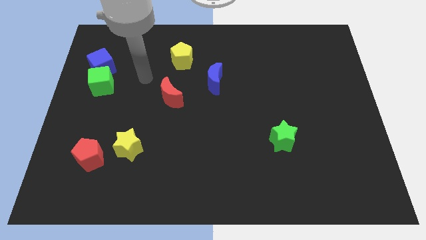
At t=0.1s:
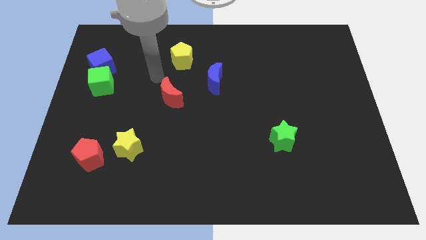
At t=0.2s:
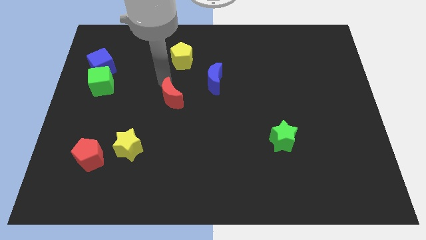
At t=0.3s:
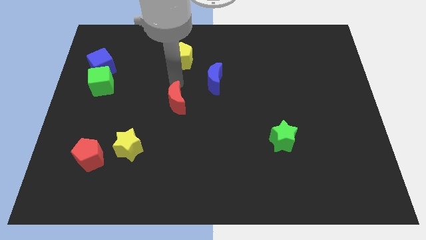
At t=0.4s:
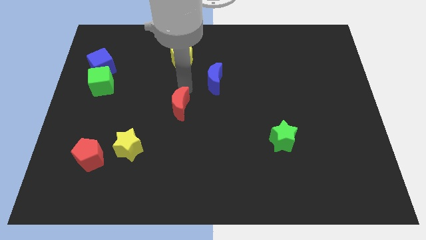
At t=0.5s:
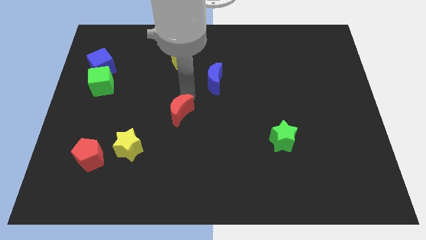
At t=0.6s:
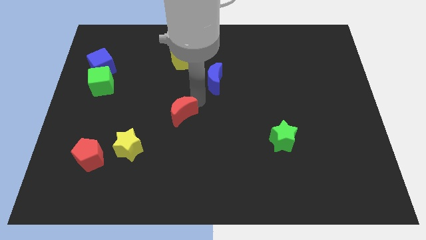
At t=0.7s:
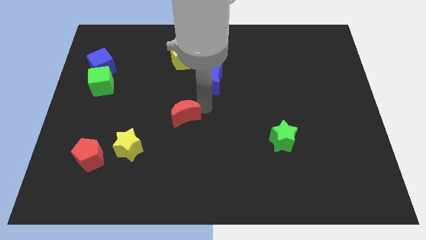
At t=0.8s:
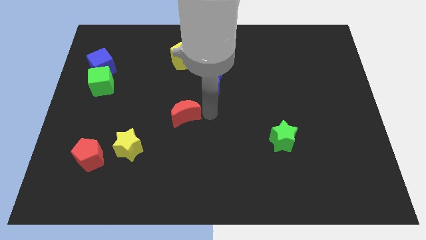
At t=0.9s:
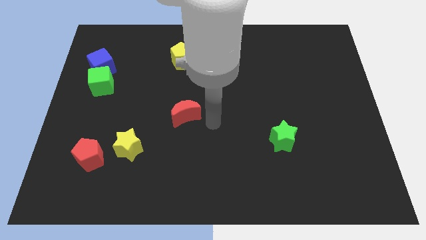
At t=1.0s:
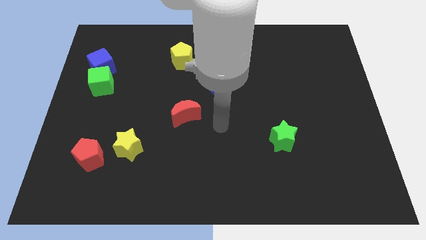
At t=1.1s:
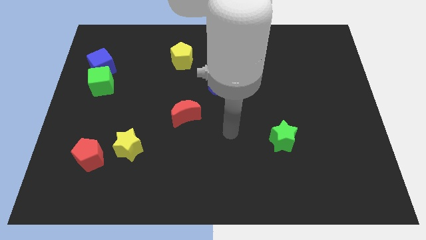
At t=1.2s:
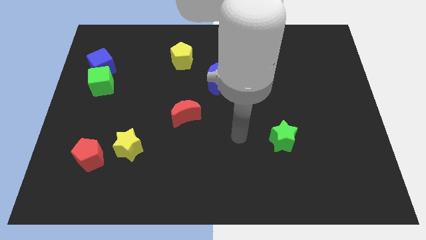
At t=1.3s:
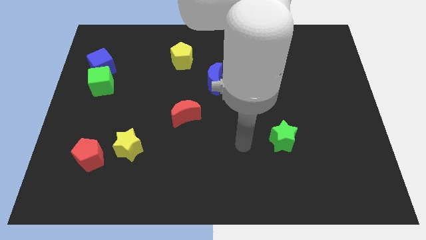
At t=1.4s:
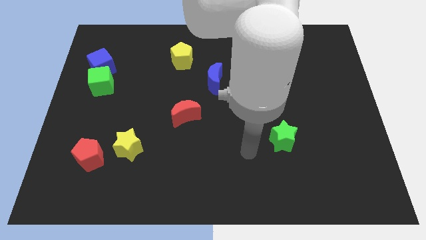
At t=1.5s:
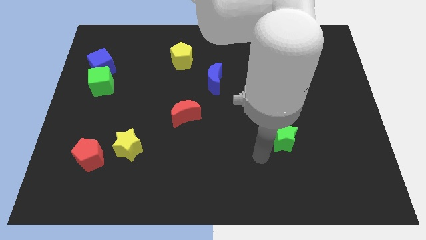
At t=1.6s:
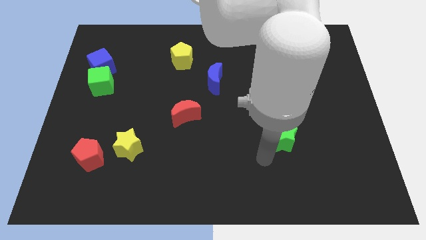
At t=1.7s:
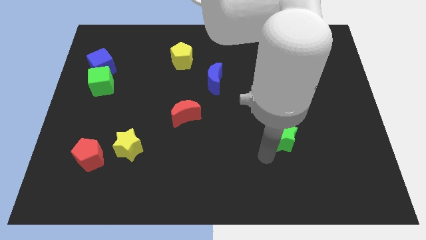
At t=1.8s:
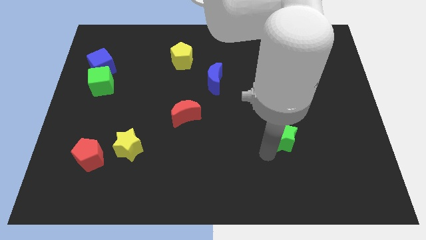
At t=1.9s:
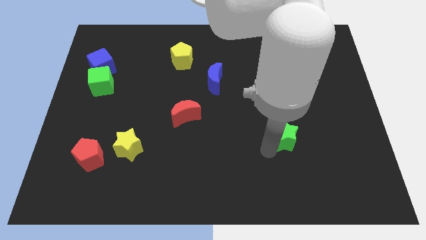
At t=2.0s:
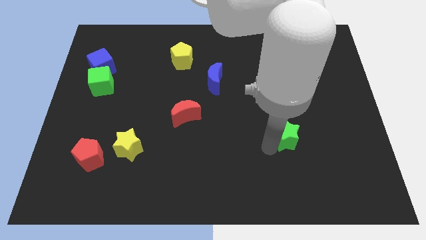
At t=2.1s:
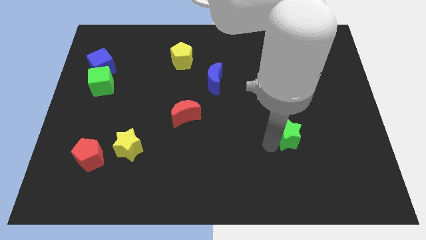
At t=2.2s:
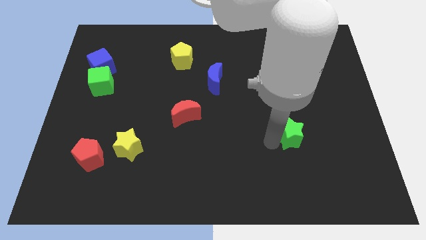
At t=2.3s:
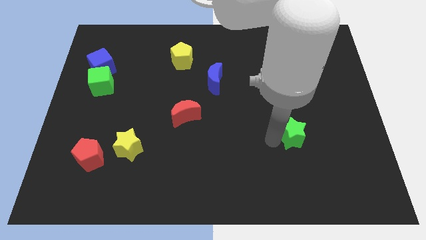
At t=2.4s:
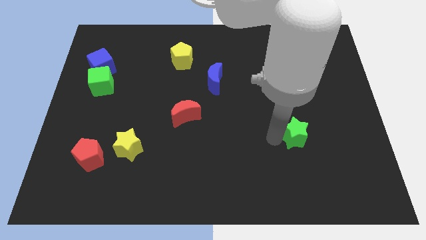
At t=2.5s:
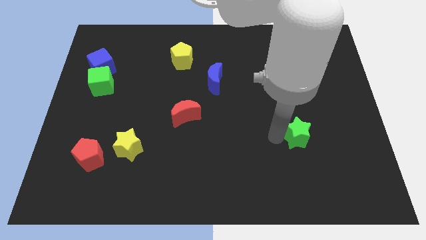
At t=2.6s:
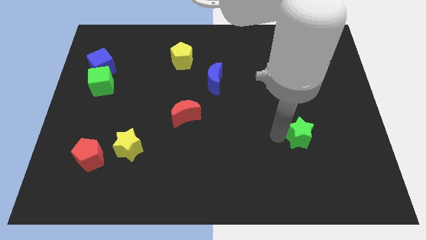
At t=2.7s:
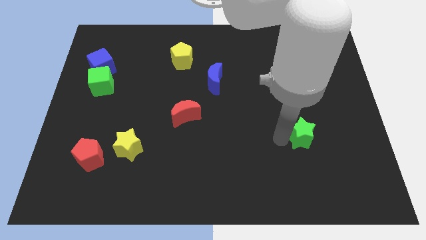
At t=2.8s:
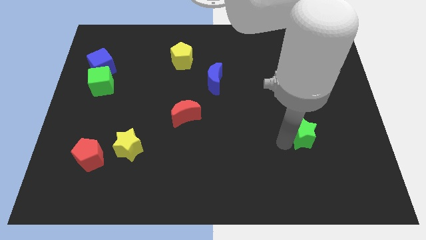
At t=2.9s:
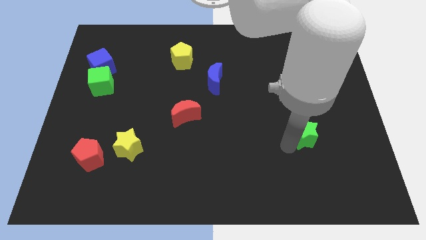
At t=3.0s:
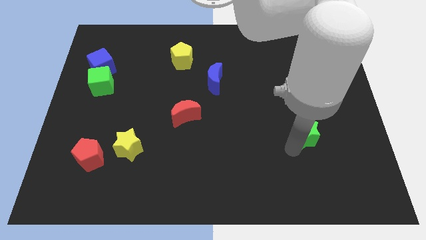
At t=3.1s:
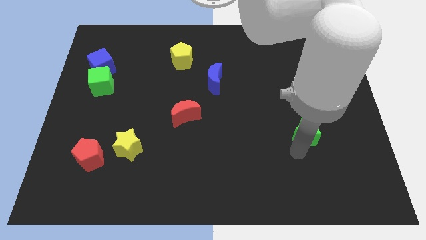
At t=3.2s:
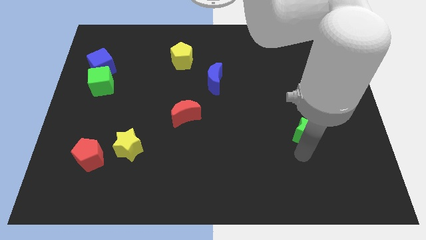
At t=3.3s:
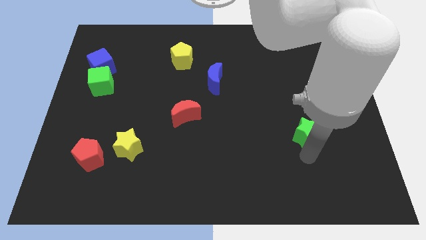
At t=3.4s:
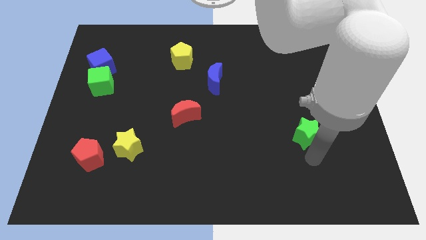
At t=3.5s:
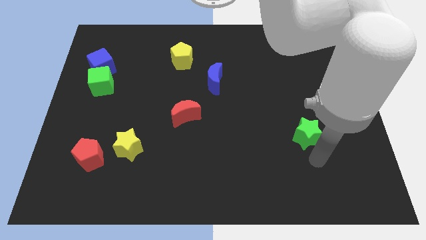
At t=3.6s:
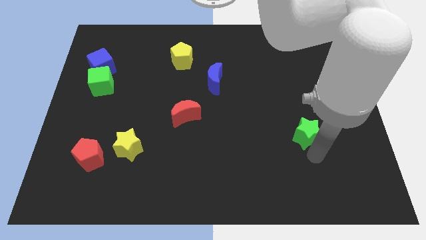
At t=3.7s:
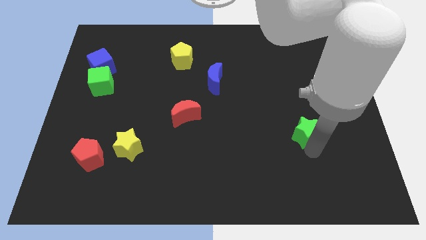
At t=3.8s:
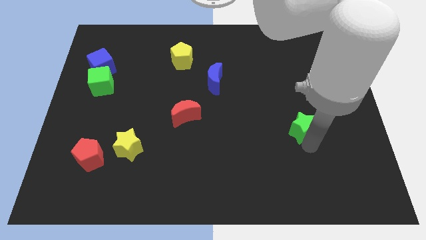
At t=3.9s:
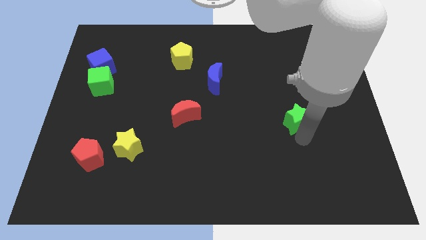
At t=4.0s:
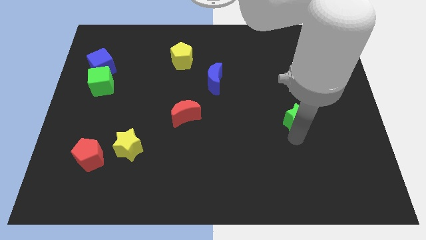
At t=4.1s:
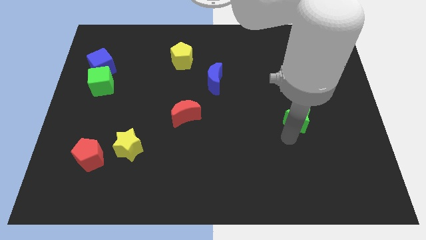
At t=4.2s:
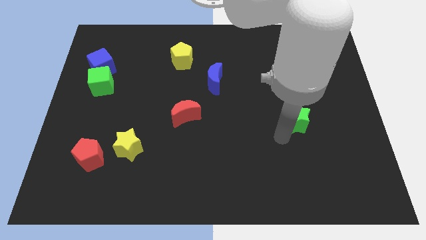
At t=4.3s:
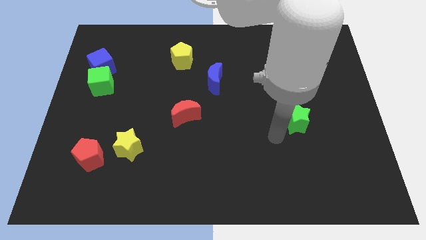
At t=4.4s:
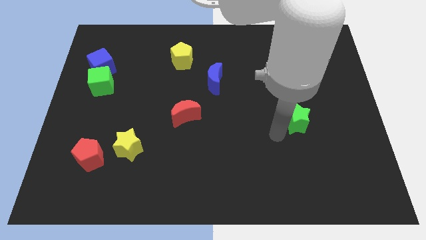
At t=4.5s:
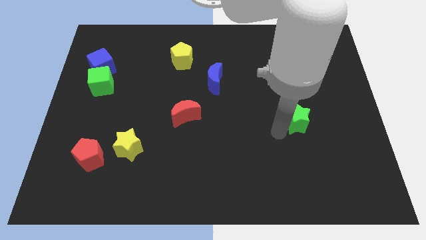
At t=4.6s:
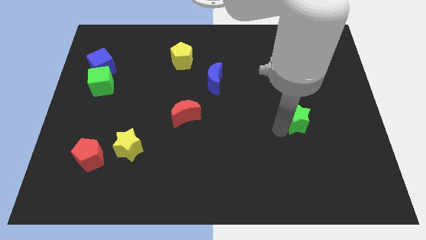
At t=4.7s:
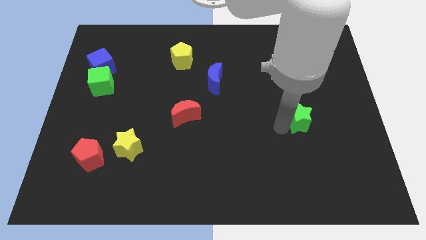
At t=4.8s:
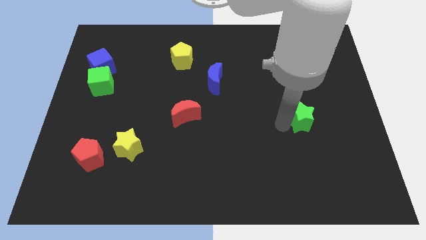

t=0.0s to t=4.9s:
slightly move the green star diagonally up and right

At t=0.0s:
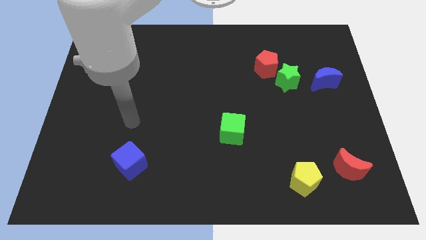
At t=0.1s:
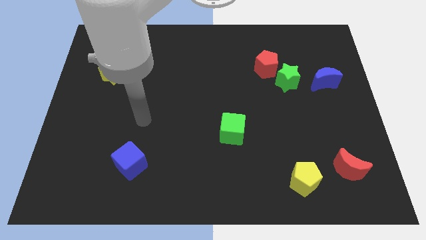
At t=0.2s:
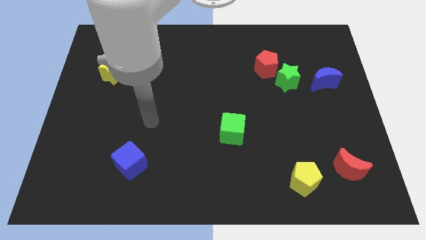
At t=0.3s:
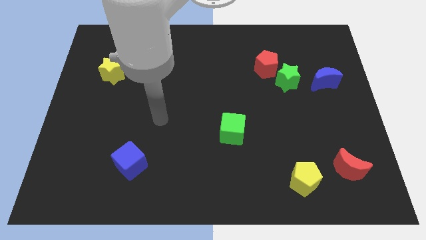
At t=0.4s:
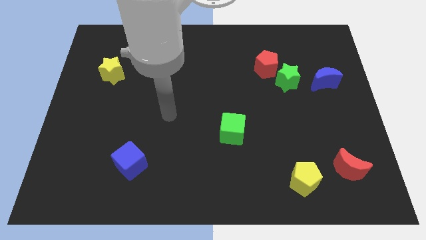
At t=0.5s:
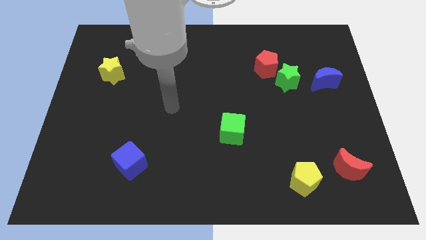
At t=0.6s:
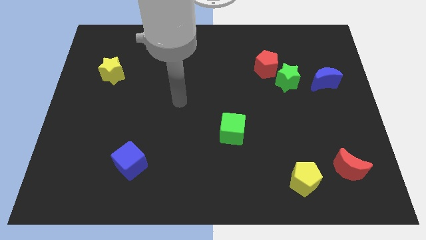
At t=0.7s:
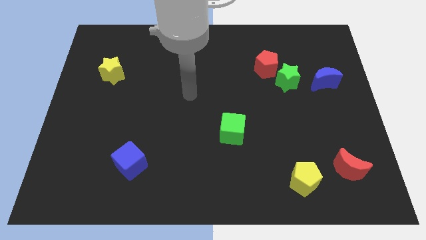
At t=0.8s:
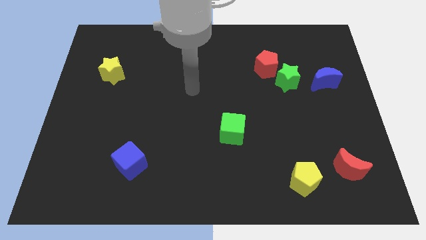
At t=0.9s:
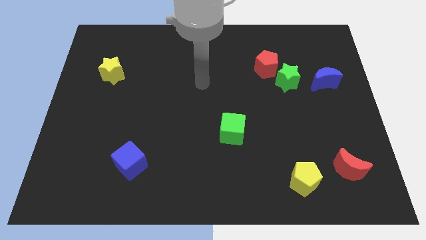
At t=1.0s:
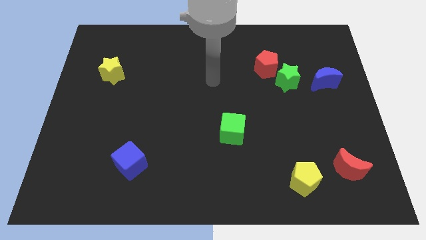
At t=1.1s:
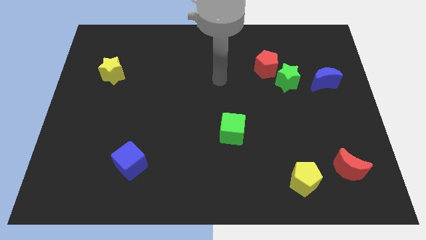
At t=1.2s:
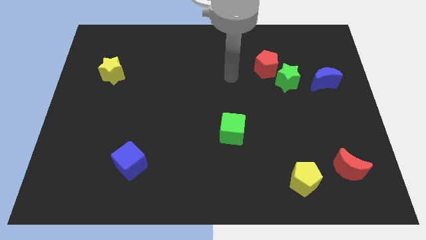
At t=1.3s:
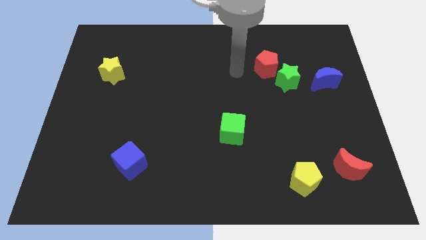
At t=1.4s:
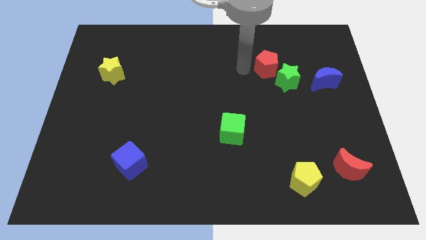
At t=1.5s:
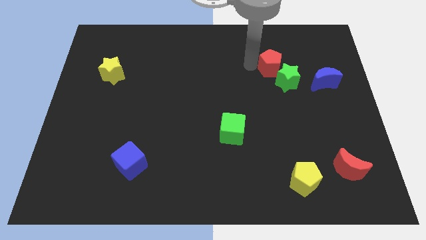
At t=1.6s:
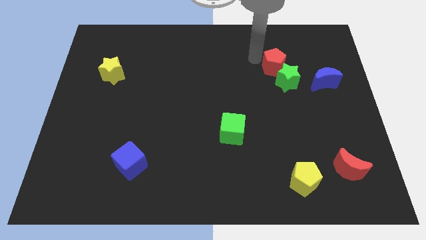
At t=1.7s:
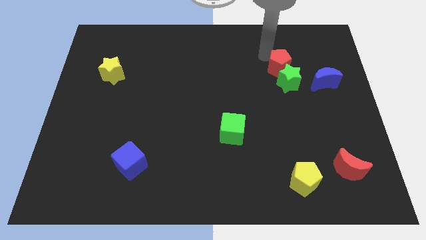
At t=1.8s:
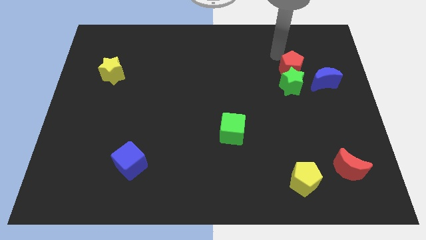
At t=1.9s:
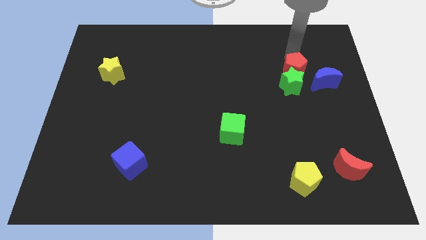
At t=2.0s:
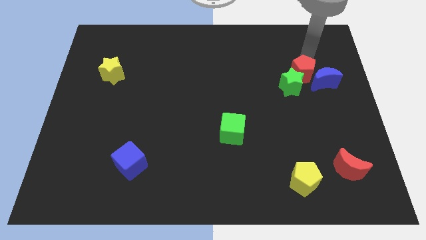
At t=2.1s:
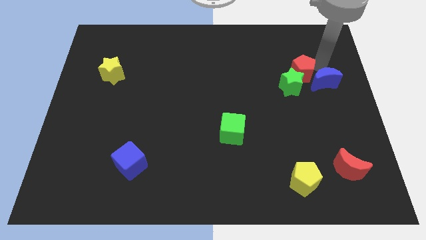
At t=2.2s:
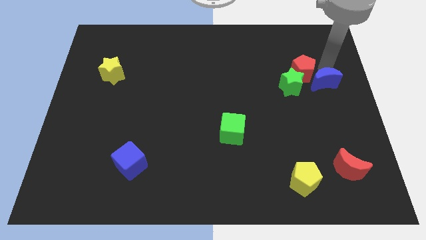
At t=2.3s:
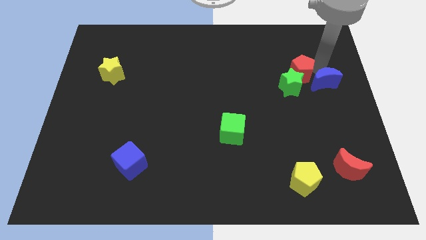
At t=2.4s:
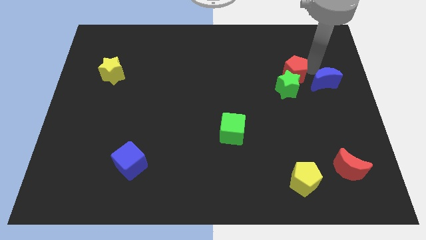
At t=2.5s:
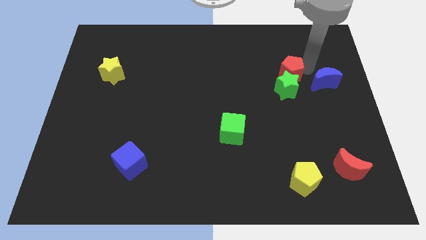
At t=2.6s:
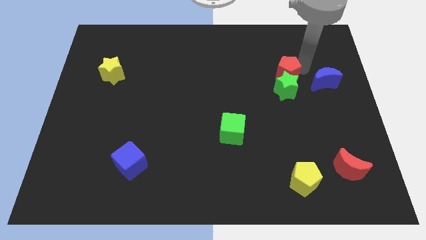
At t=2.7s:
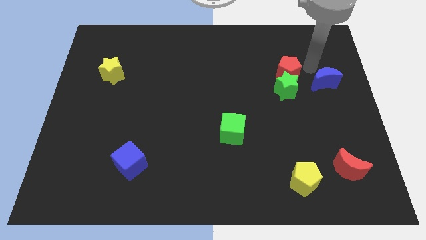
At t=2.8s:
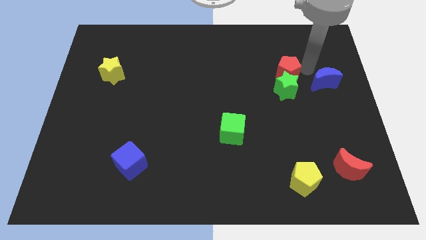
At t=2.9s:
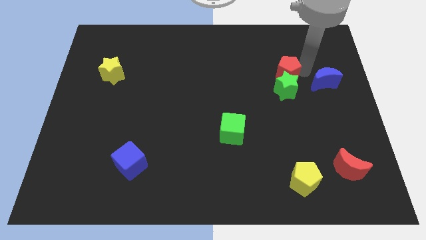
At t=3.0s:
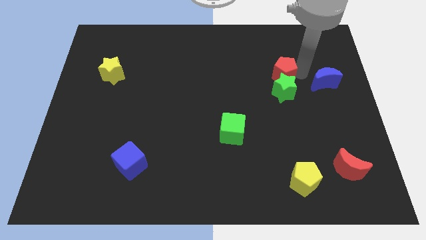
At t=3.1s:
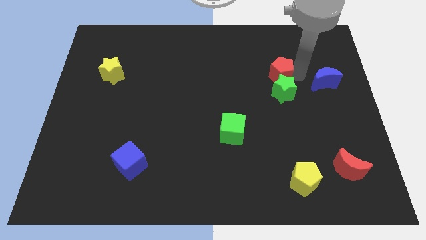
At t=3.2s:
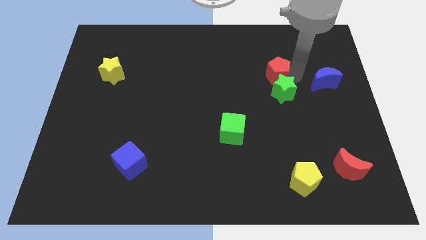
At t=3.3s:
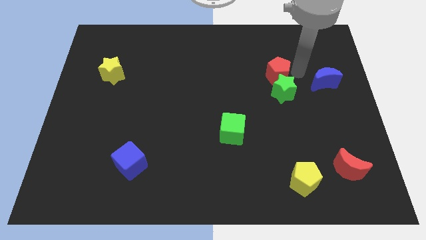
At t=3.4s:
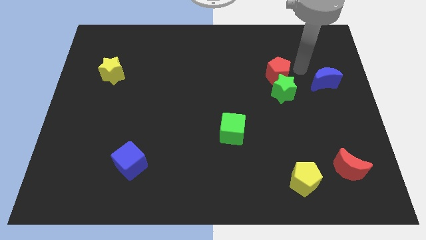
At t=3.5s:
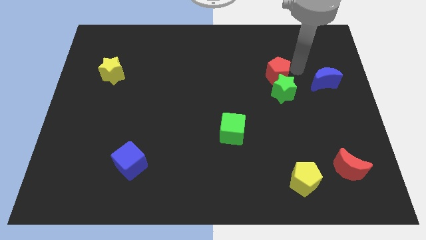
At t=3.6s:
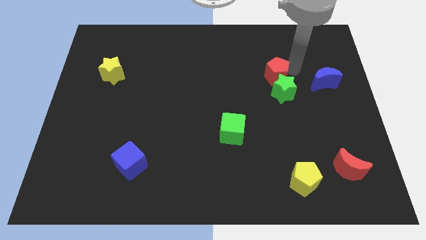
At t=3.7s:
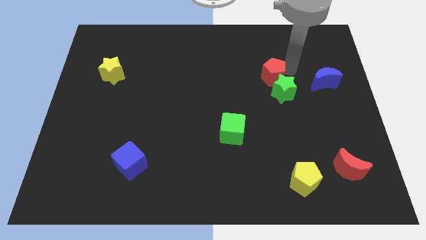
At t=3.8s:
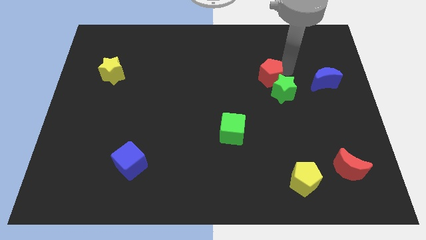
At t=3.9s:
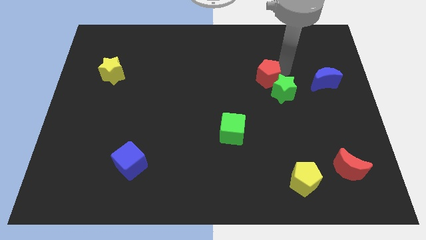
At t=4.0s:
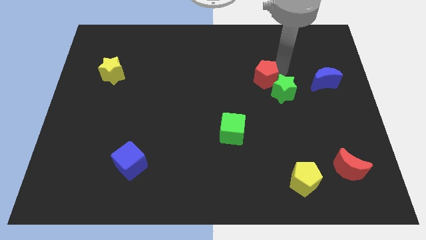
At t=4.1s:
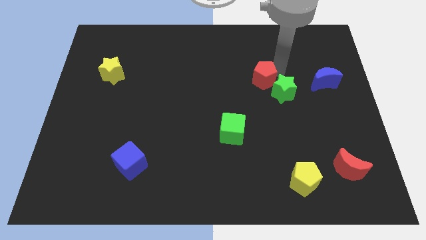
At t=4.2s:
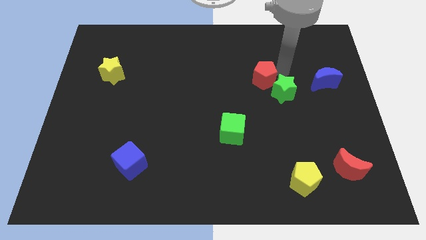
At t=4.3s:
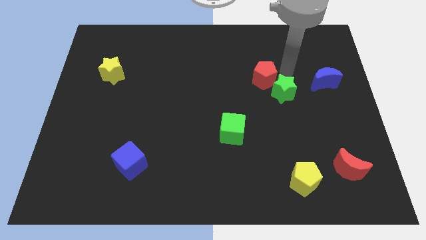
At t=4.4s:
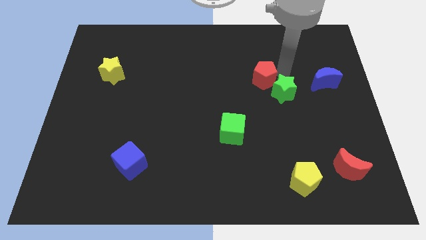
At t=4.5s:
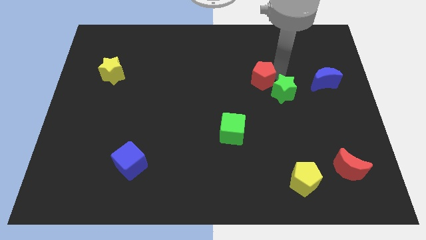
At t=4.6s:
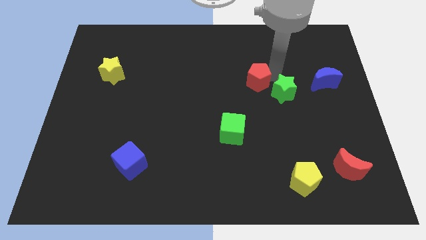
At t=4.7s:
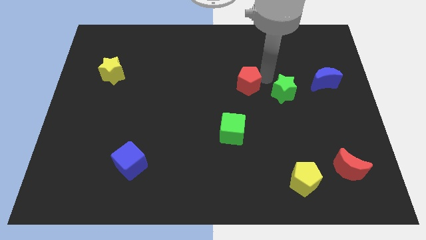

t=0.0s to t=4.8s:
slide the red pentagon down and left a little bit
